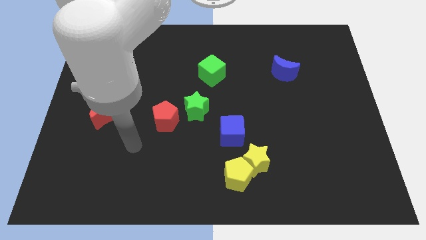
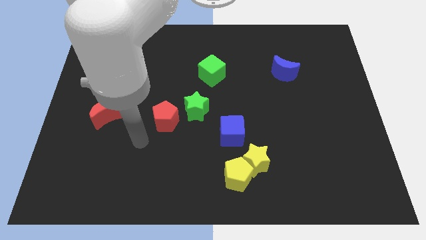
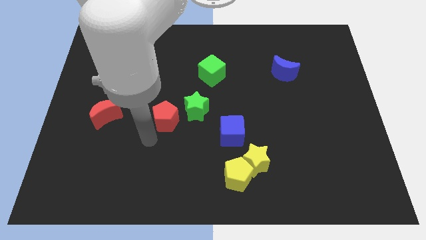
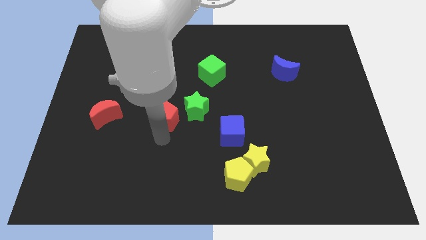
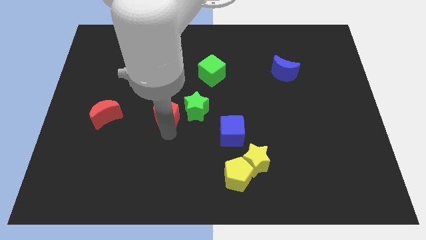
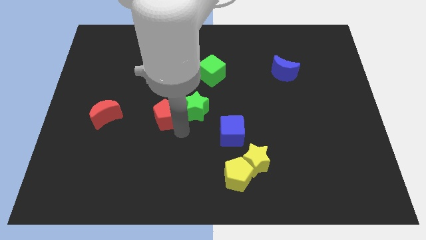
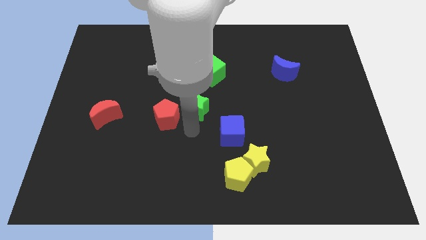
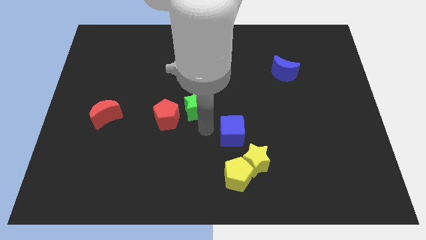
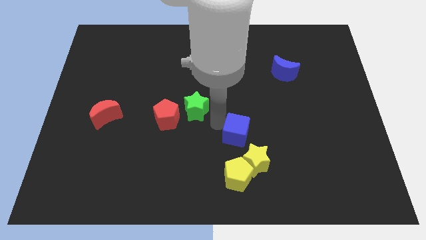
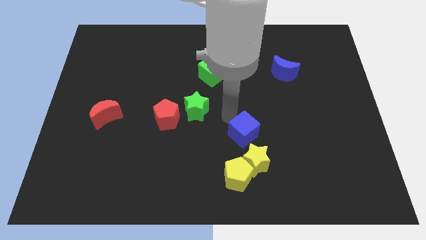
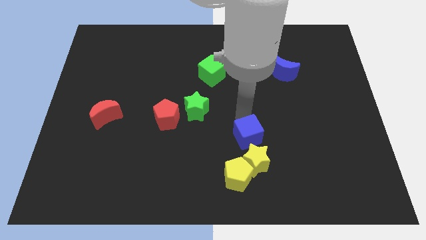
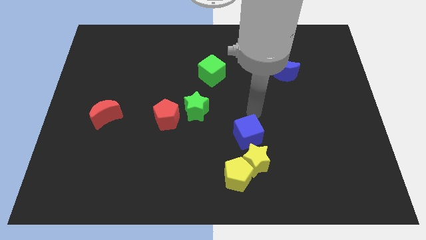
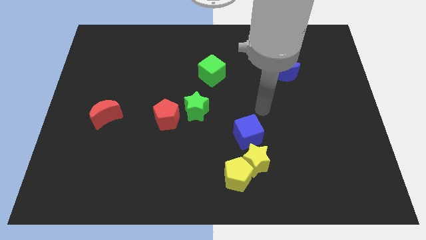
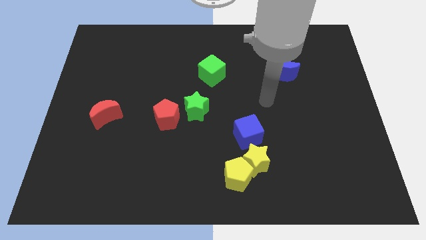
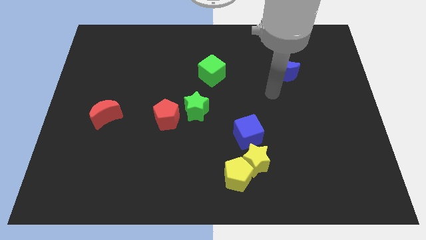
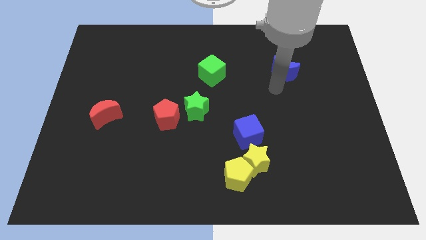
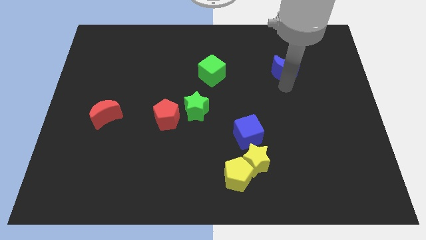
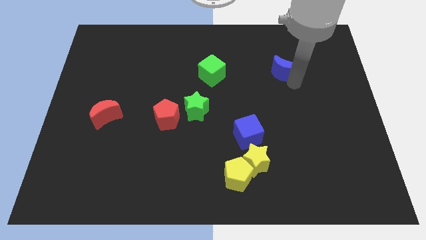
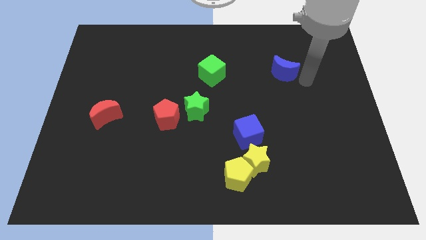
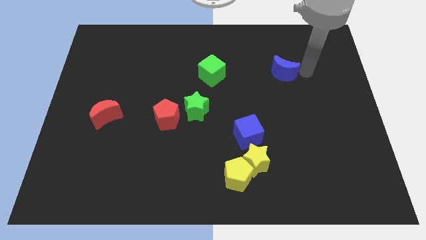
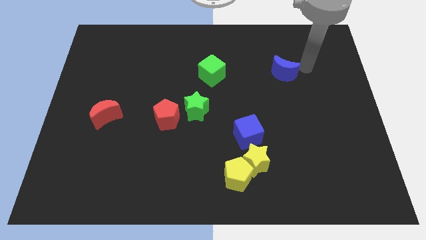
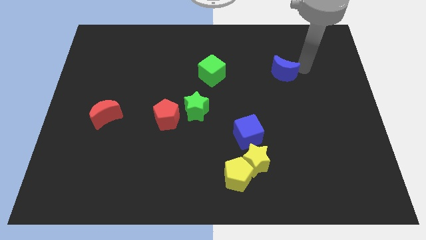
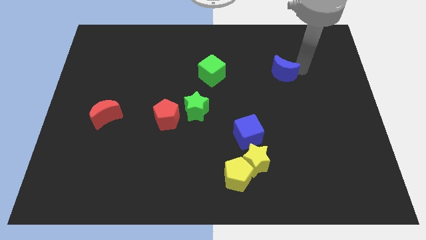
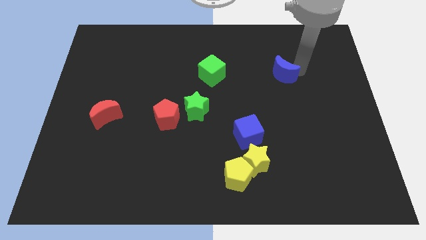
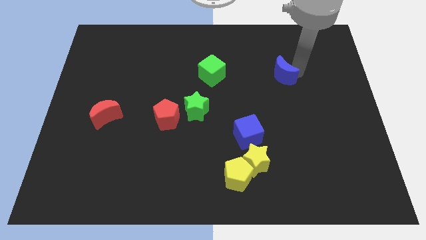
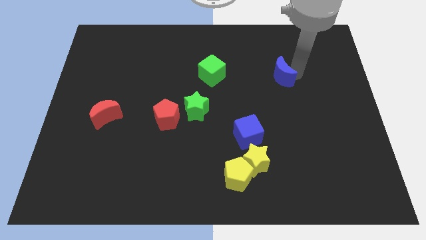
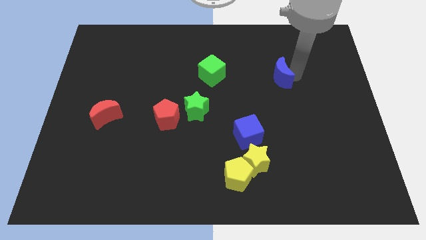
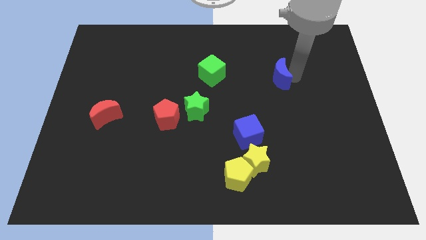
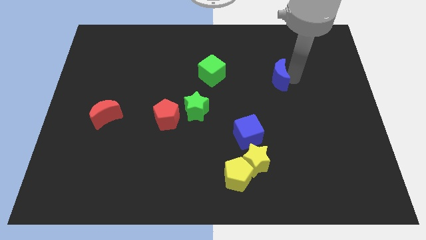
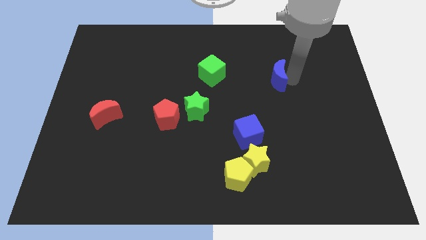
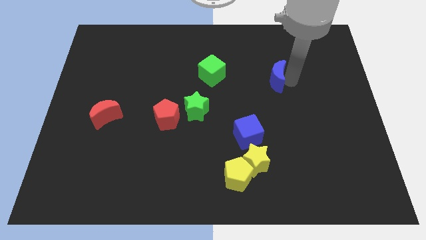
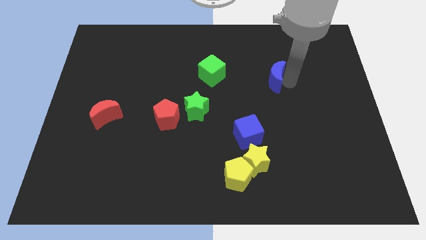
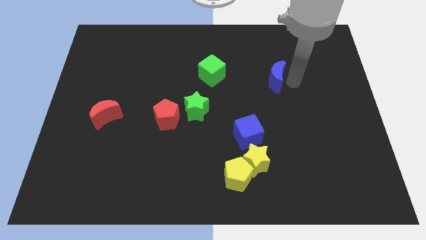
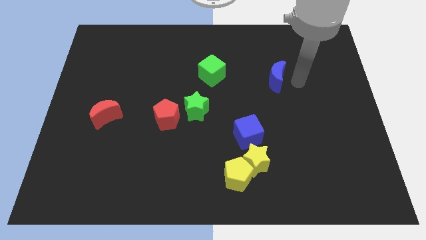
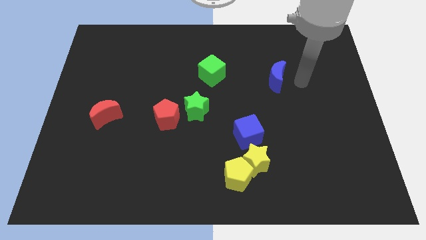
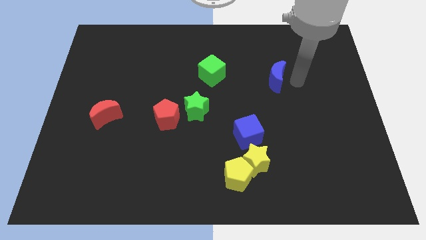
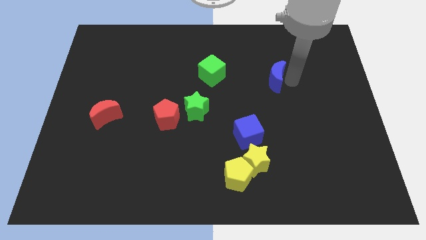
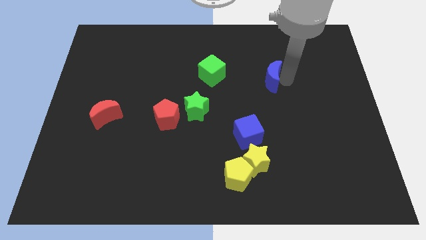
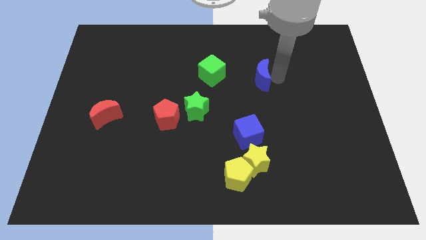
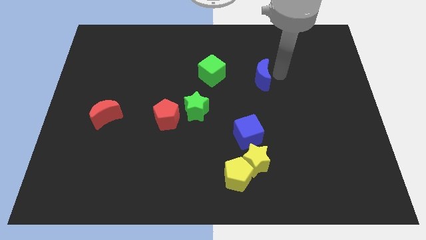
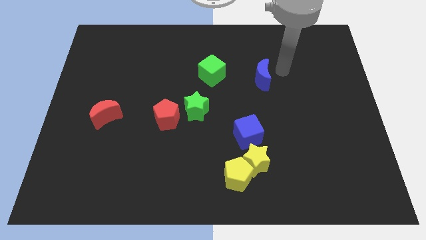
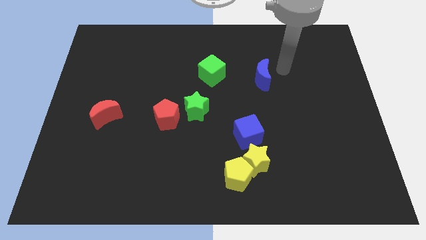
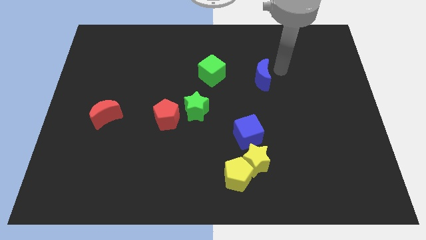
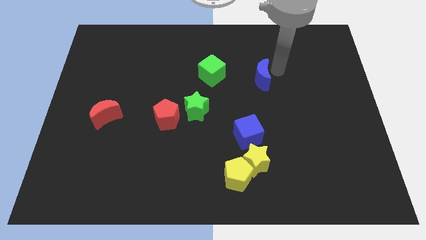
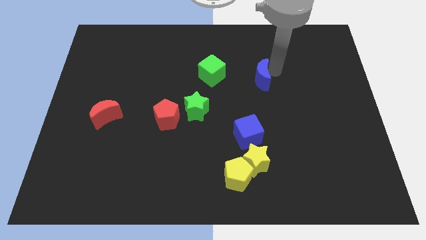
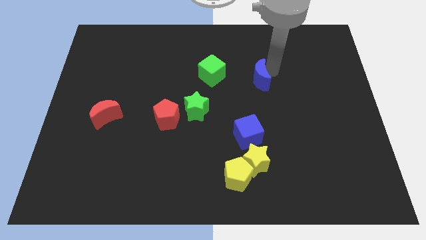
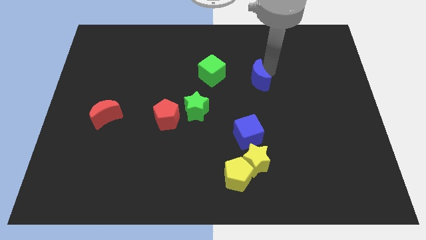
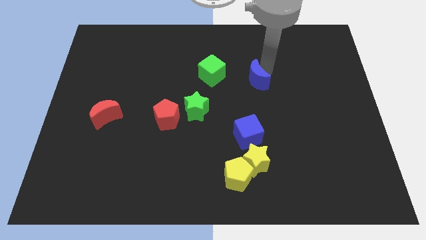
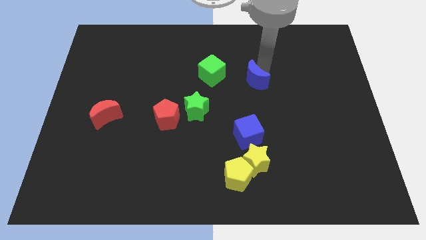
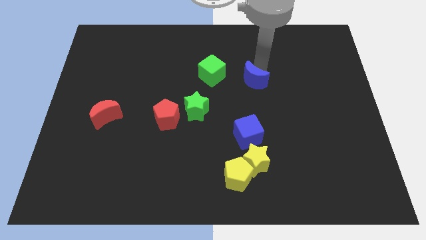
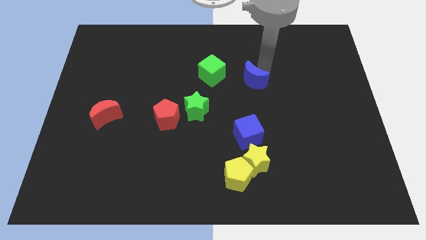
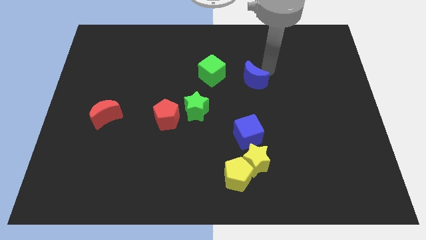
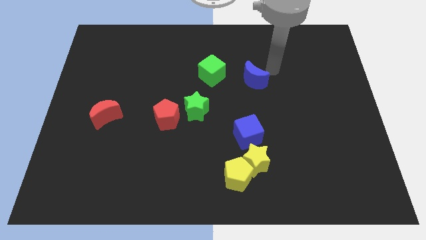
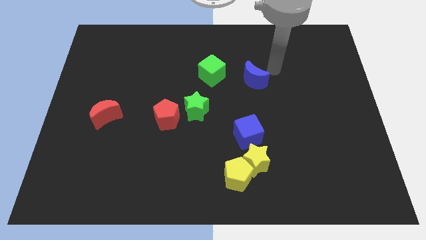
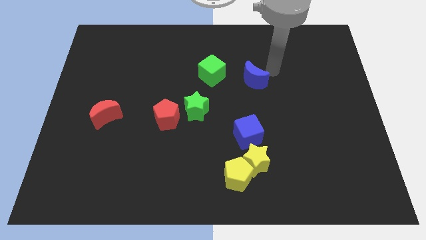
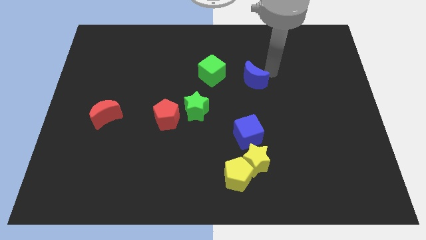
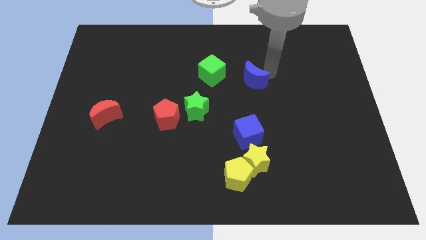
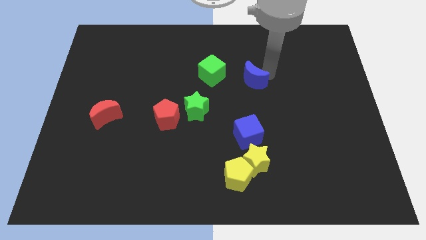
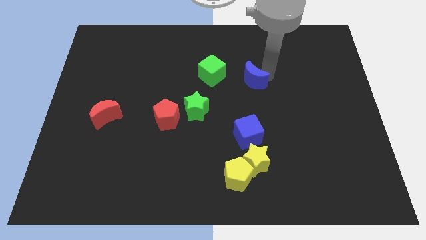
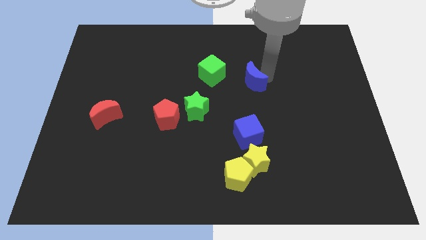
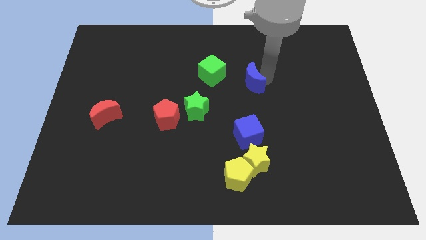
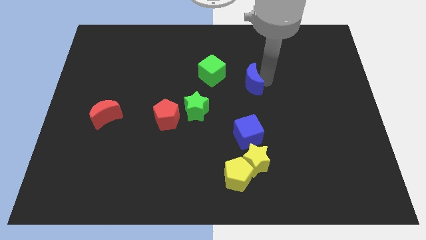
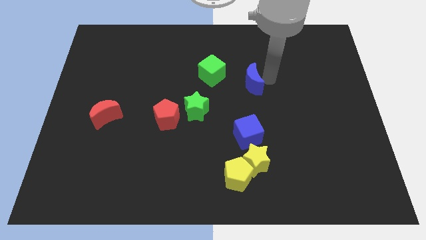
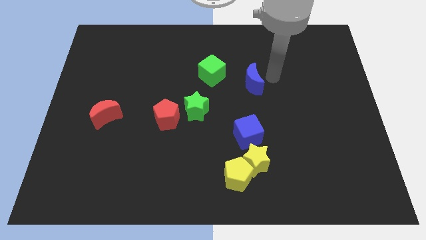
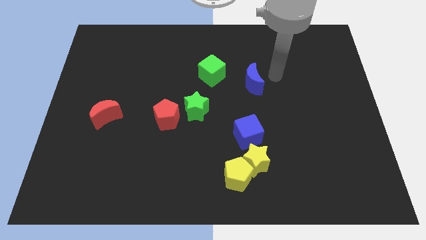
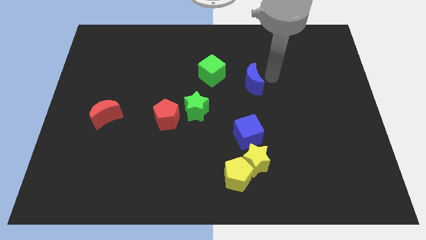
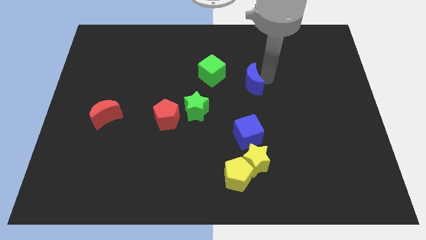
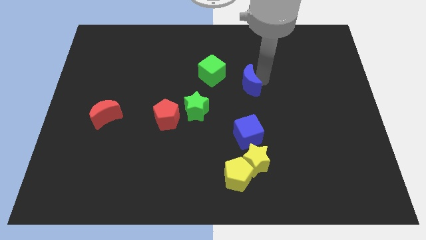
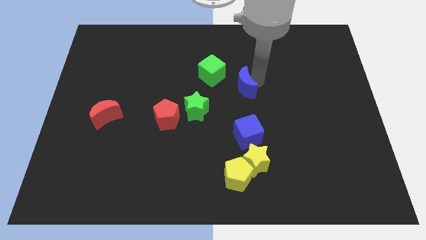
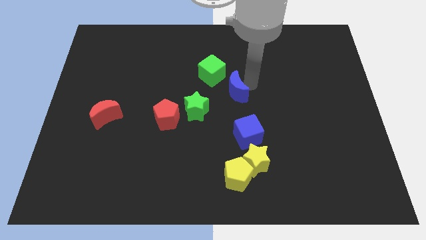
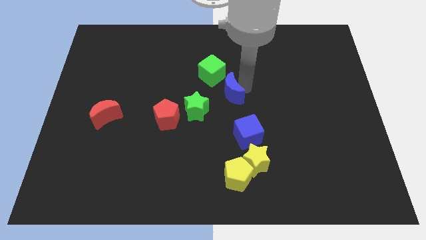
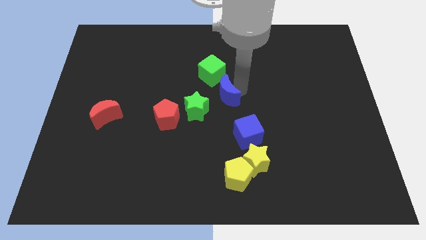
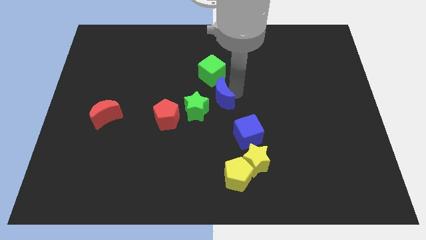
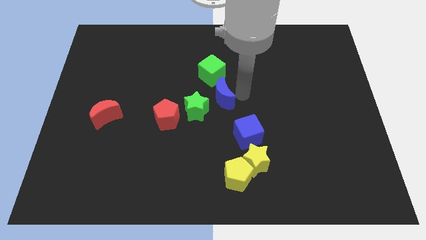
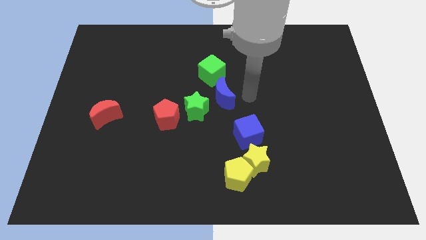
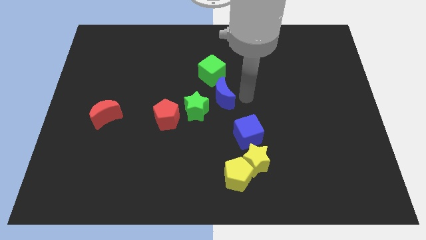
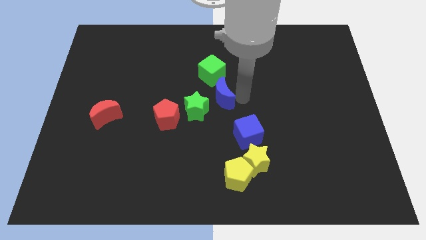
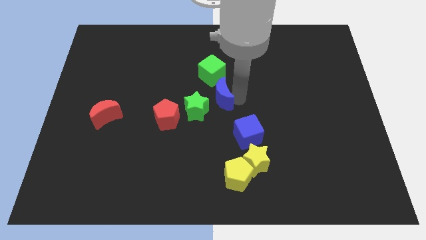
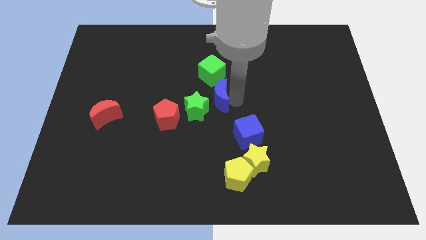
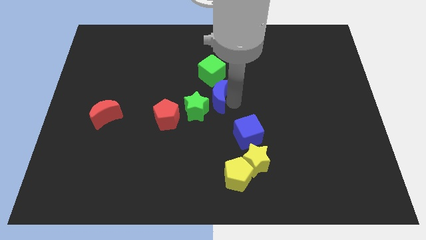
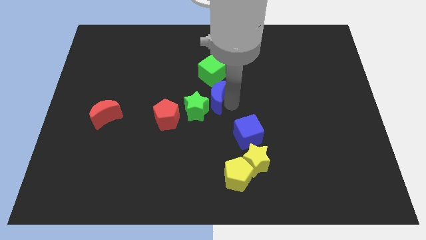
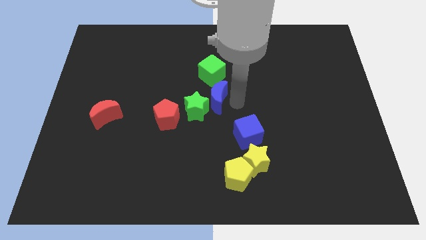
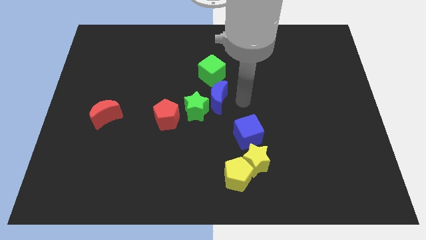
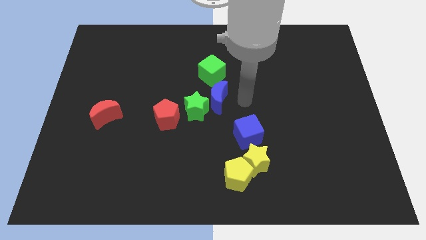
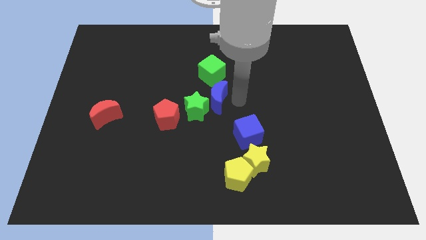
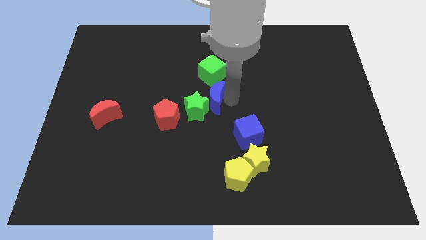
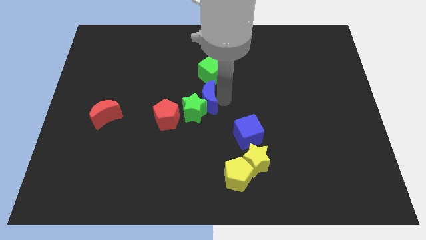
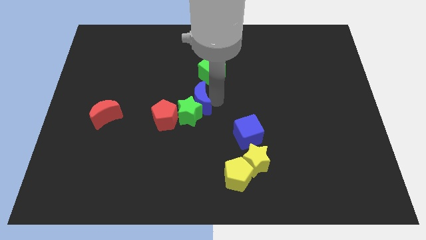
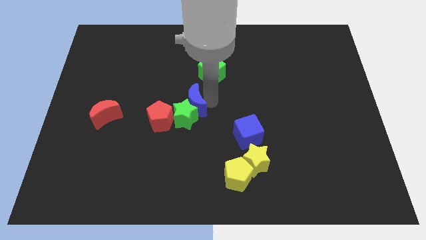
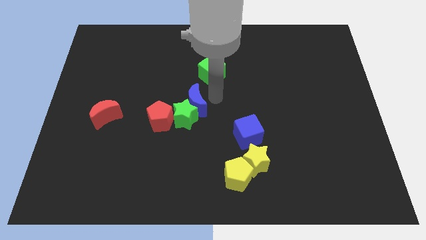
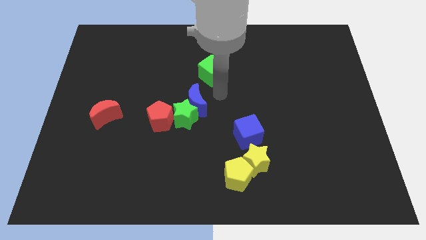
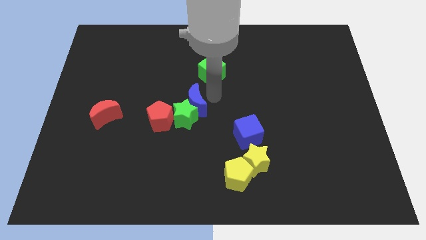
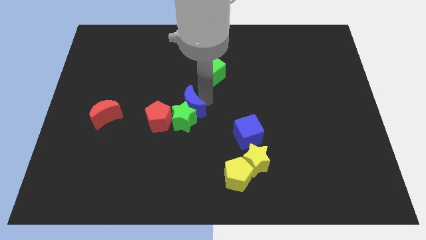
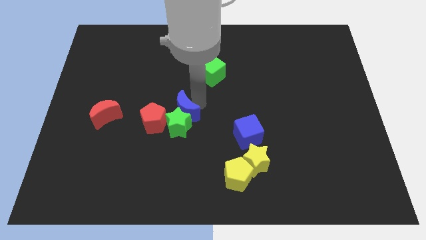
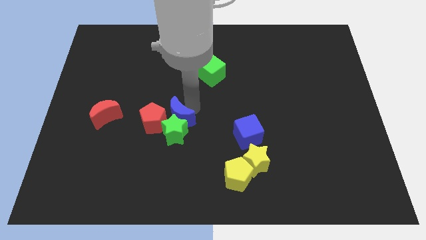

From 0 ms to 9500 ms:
move the blue moon close to the red pentagon
